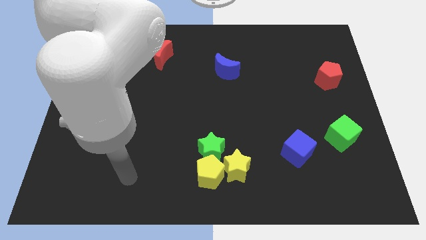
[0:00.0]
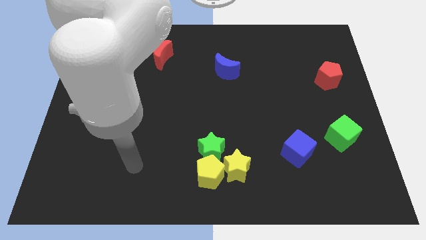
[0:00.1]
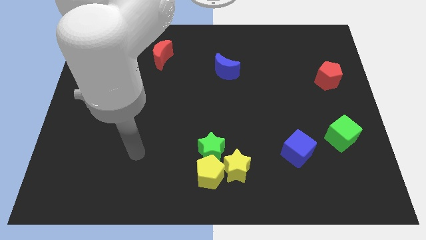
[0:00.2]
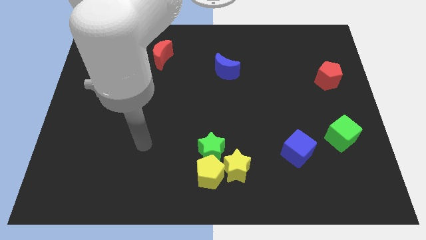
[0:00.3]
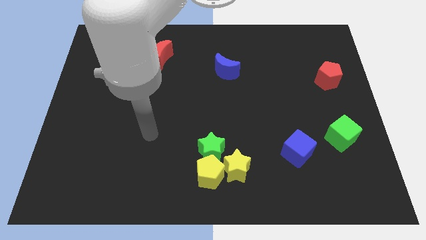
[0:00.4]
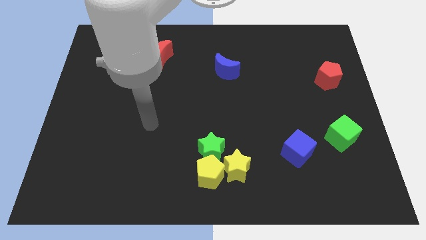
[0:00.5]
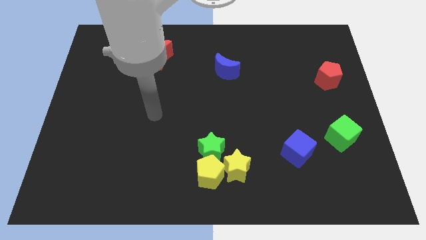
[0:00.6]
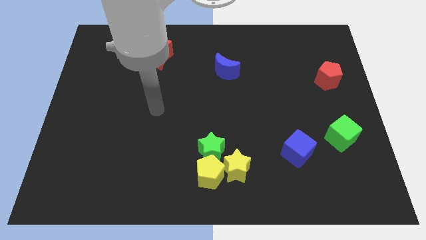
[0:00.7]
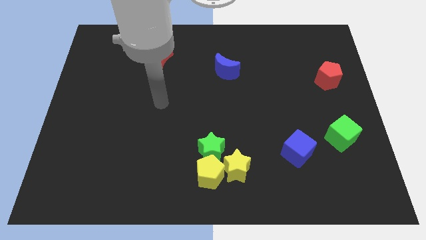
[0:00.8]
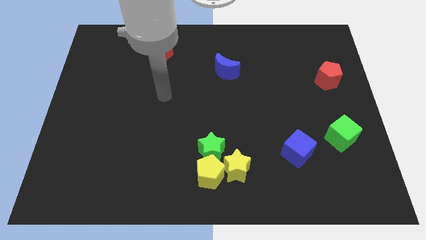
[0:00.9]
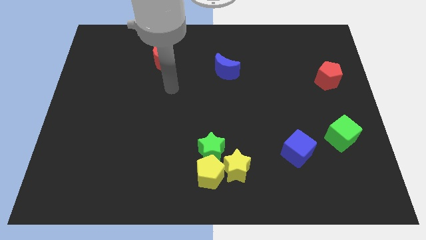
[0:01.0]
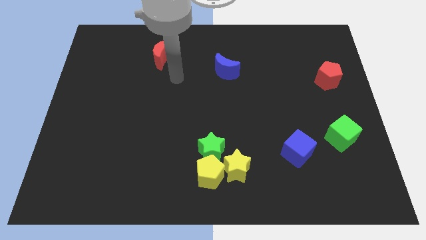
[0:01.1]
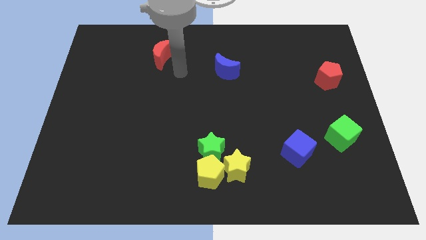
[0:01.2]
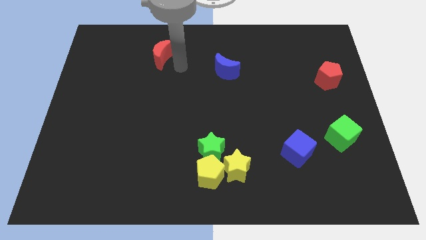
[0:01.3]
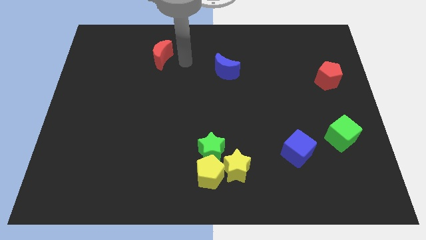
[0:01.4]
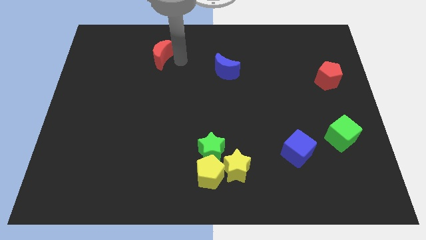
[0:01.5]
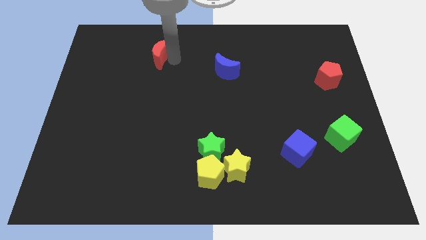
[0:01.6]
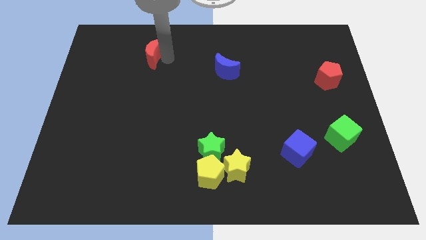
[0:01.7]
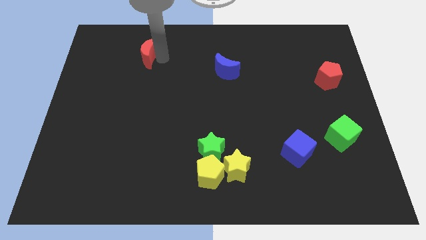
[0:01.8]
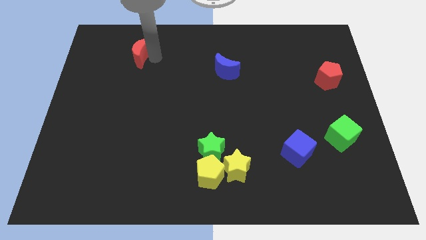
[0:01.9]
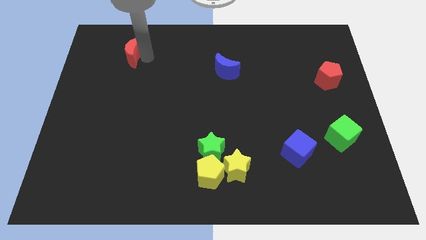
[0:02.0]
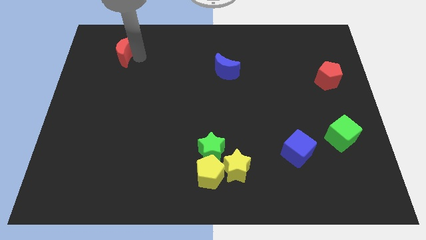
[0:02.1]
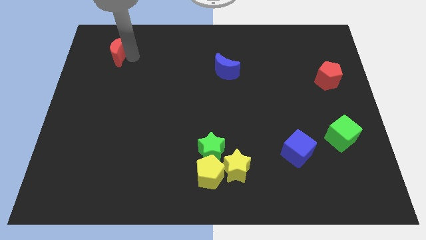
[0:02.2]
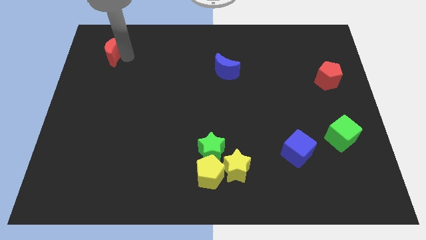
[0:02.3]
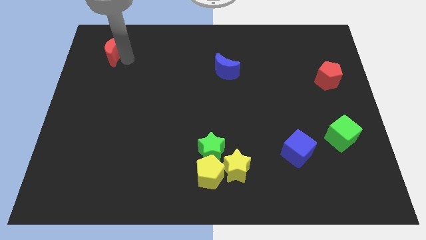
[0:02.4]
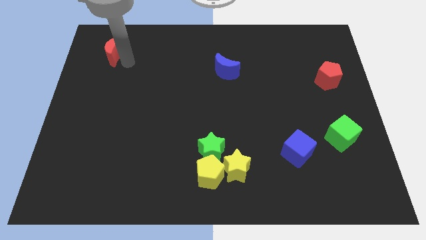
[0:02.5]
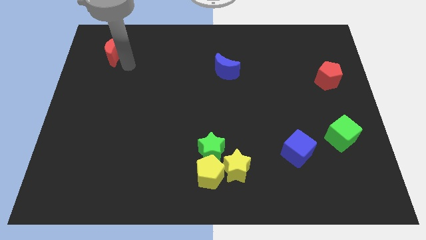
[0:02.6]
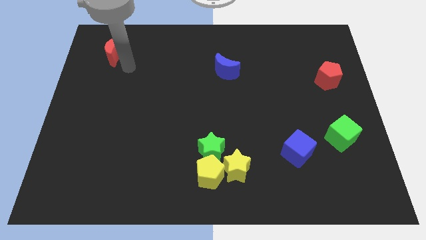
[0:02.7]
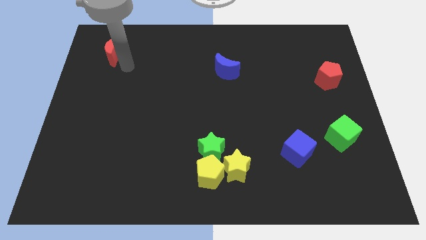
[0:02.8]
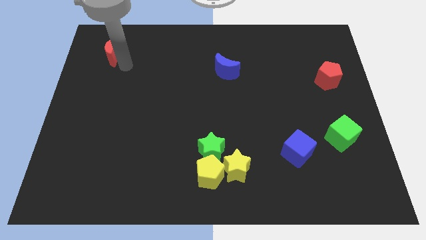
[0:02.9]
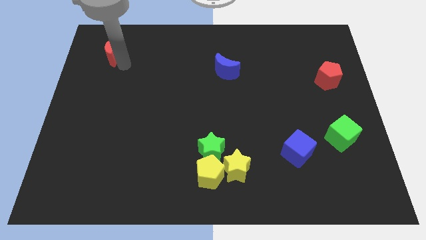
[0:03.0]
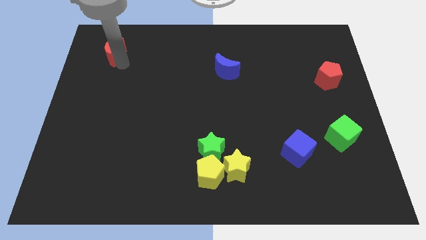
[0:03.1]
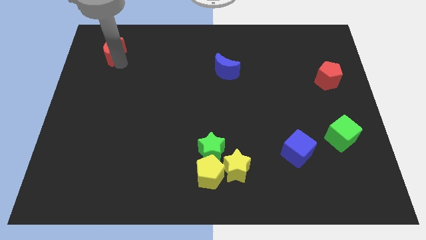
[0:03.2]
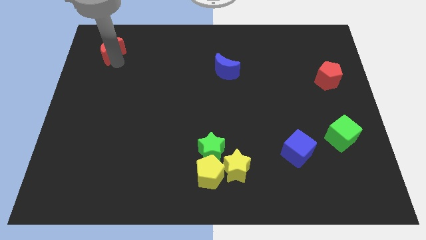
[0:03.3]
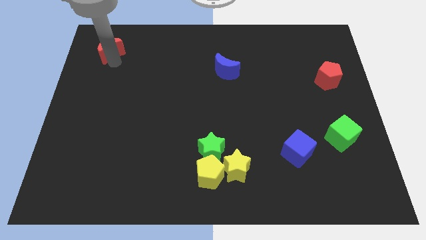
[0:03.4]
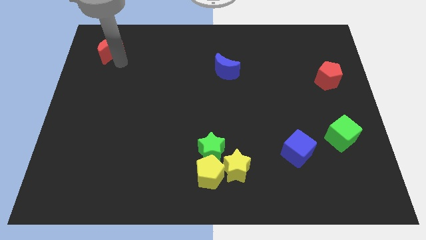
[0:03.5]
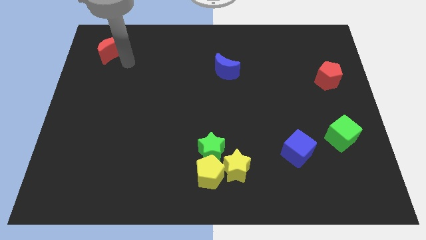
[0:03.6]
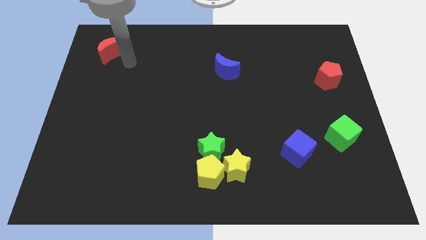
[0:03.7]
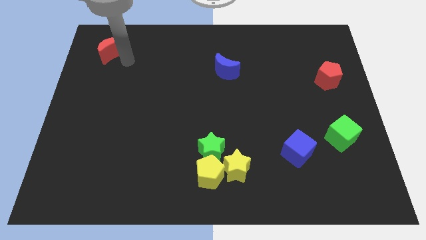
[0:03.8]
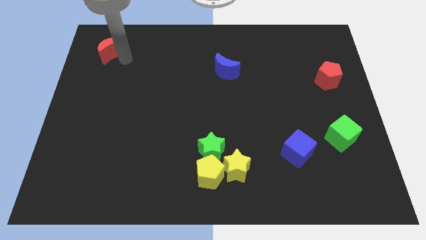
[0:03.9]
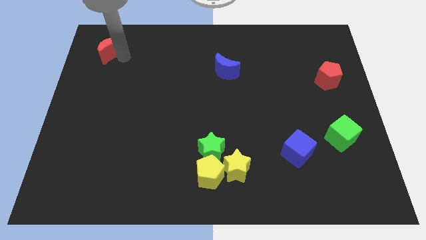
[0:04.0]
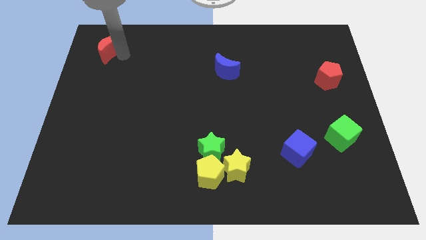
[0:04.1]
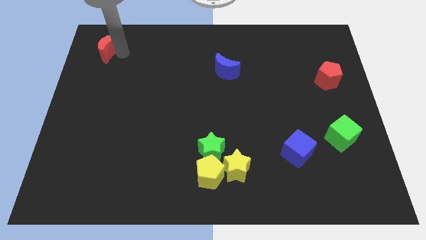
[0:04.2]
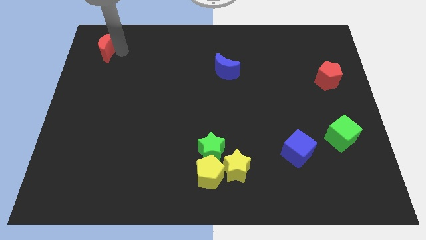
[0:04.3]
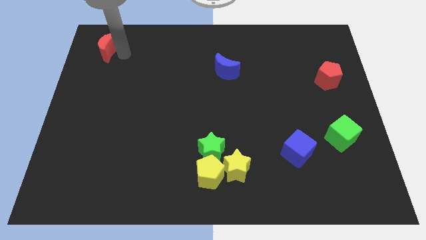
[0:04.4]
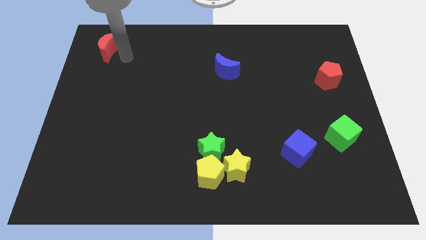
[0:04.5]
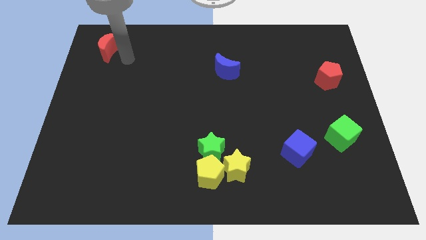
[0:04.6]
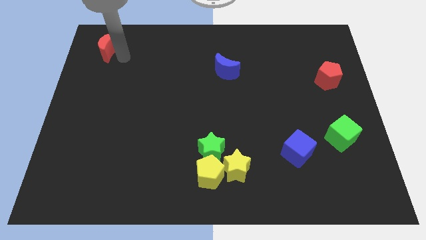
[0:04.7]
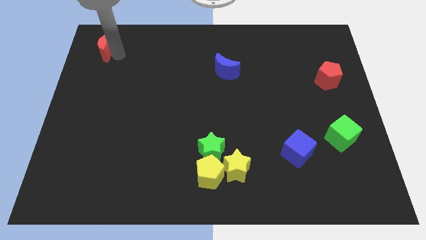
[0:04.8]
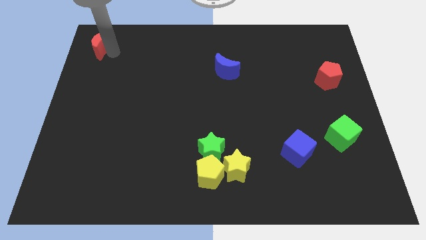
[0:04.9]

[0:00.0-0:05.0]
push the red moon to the top left corner
